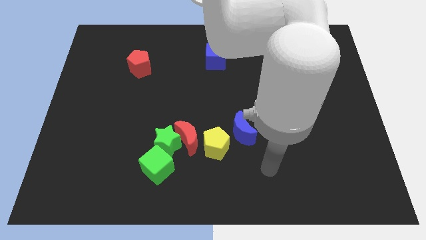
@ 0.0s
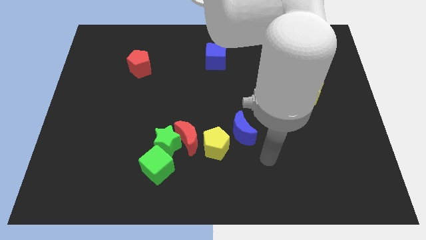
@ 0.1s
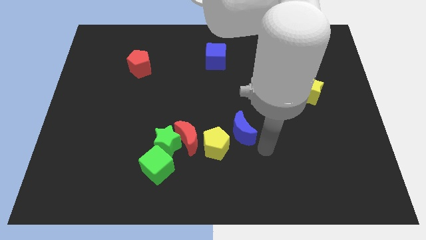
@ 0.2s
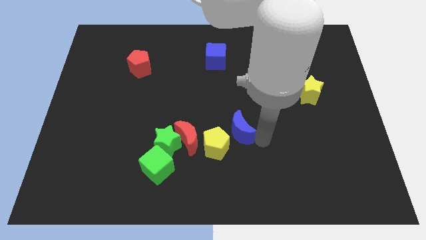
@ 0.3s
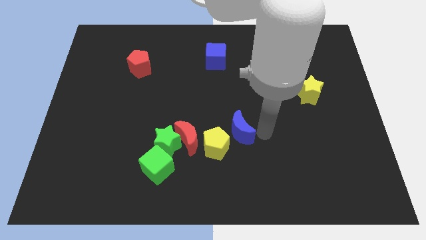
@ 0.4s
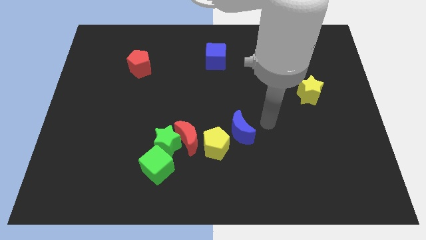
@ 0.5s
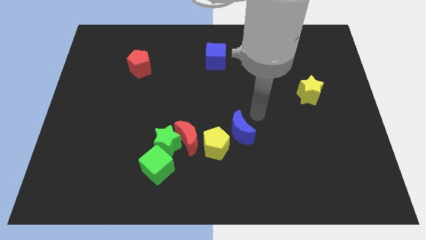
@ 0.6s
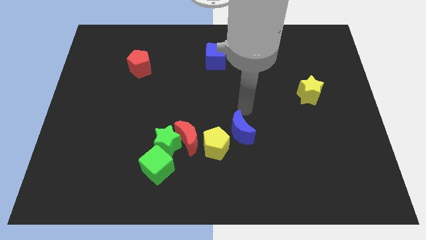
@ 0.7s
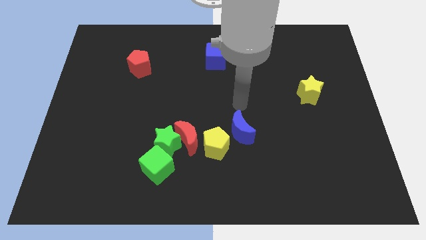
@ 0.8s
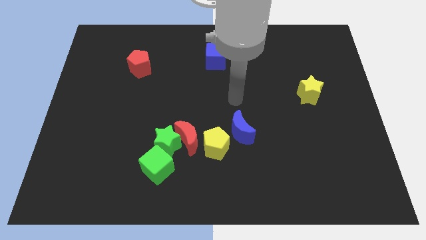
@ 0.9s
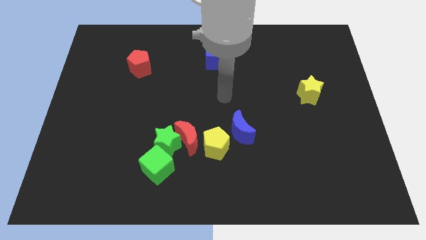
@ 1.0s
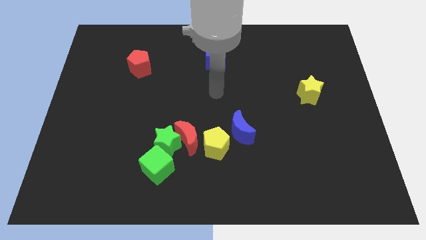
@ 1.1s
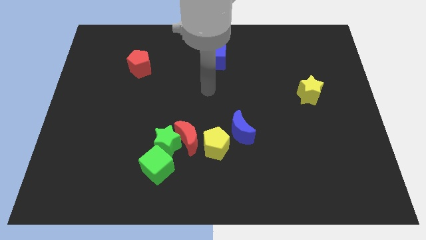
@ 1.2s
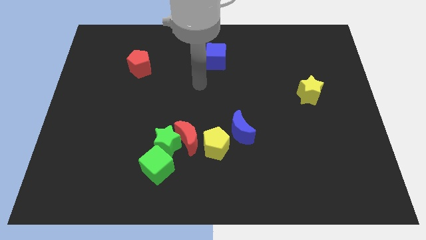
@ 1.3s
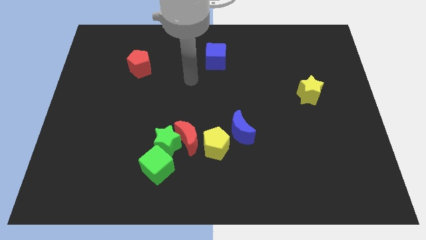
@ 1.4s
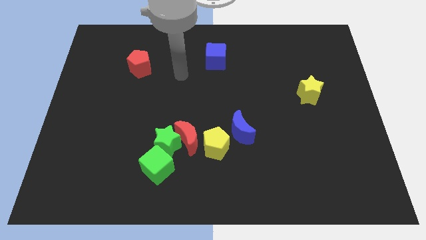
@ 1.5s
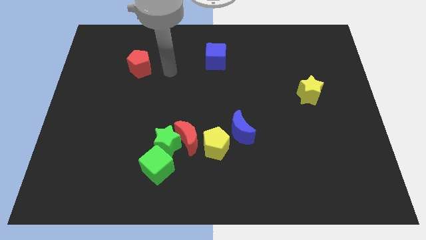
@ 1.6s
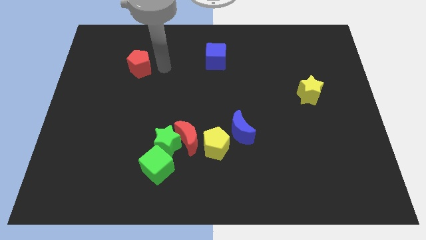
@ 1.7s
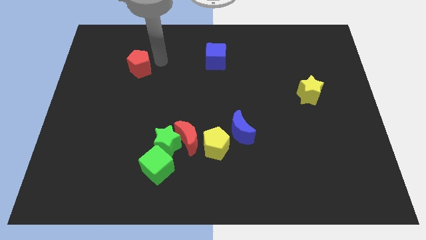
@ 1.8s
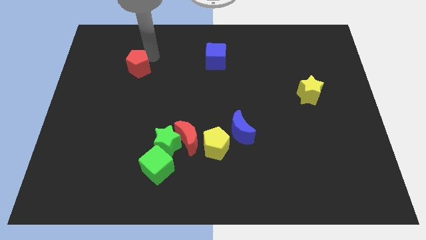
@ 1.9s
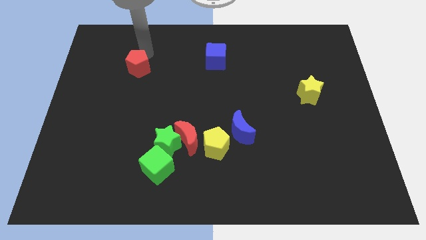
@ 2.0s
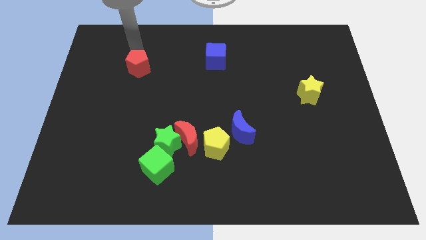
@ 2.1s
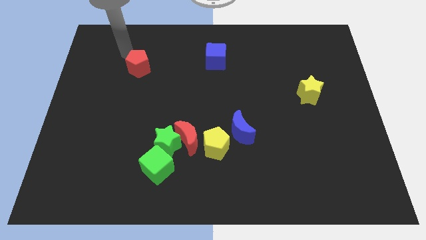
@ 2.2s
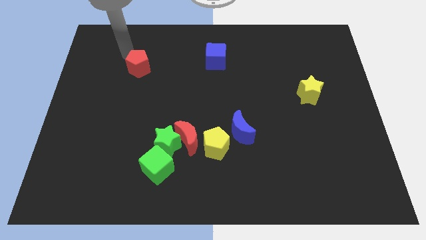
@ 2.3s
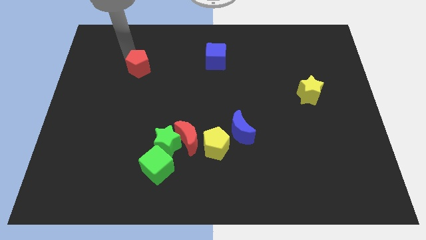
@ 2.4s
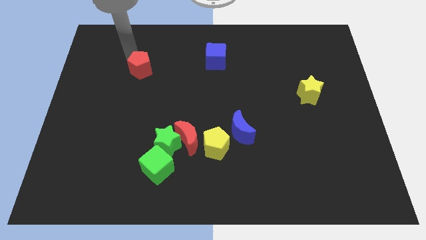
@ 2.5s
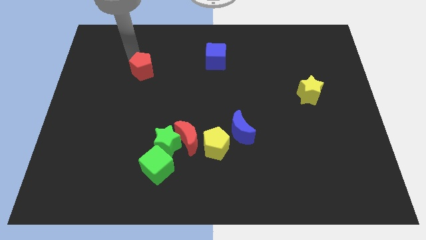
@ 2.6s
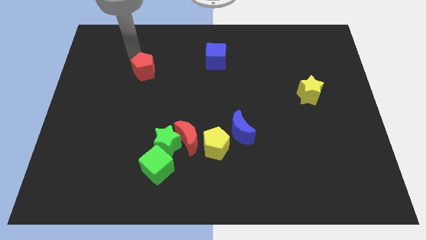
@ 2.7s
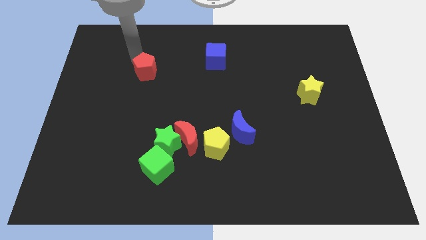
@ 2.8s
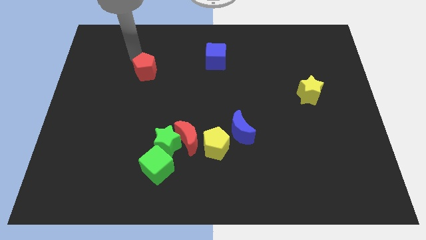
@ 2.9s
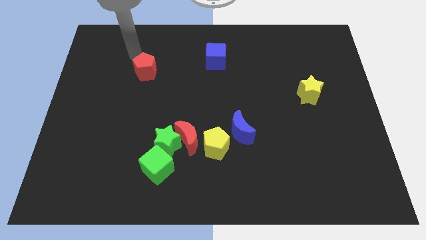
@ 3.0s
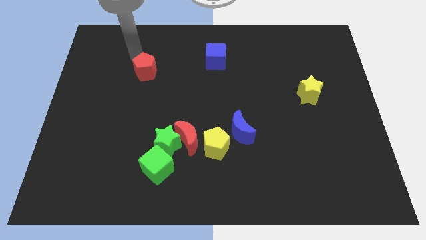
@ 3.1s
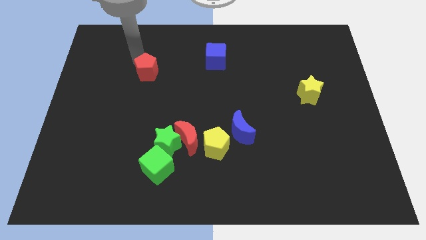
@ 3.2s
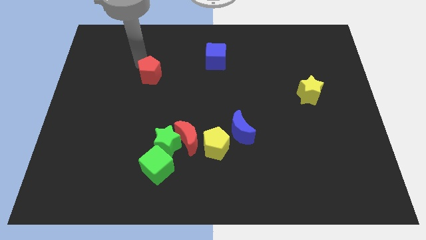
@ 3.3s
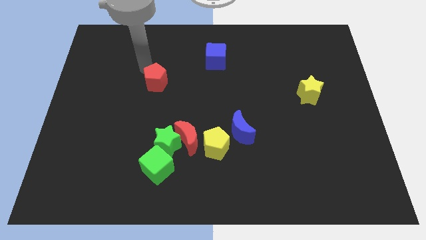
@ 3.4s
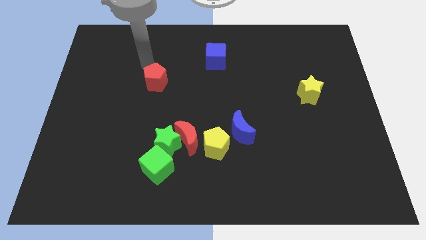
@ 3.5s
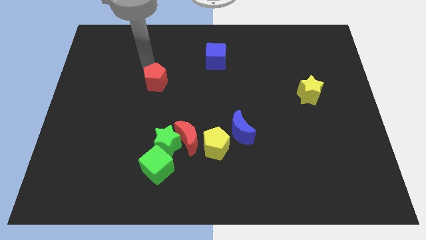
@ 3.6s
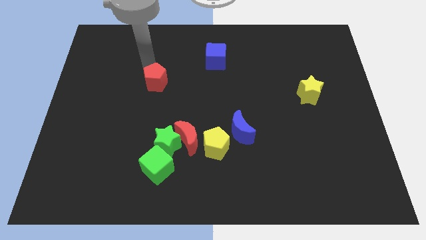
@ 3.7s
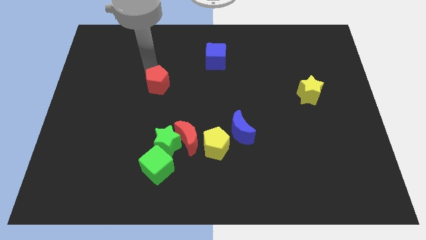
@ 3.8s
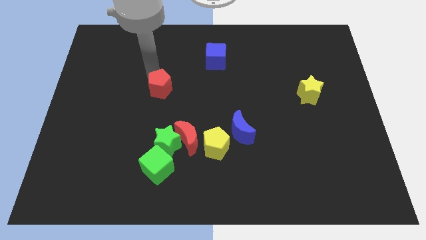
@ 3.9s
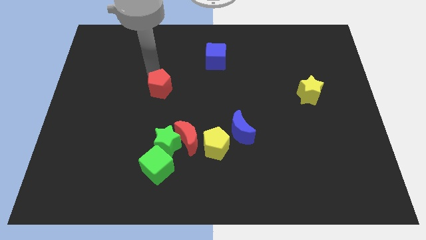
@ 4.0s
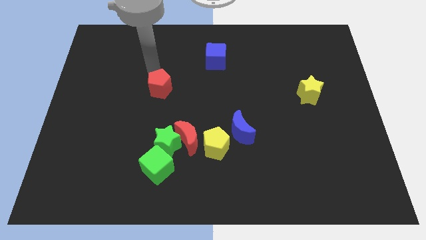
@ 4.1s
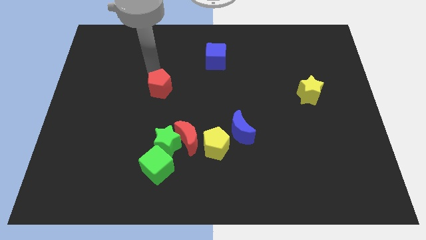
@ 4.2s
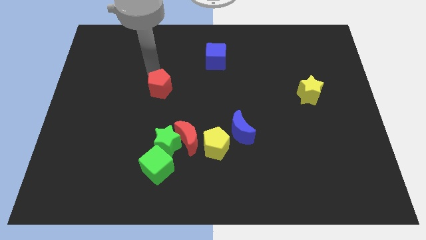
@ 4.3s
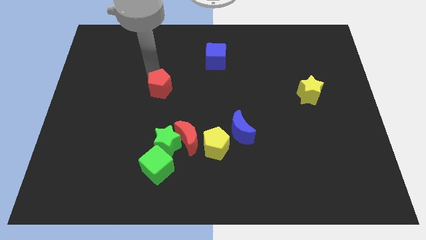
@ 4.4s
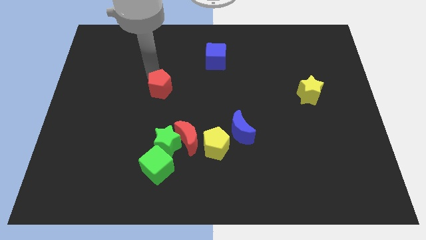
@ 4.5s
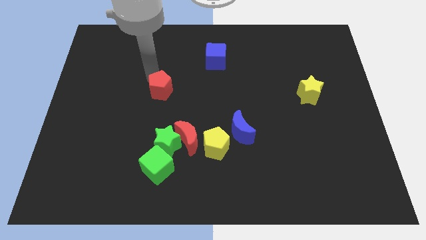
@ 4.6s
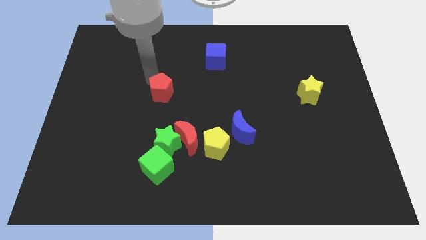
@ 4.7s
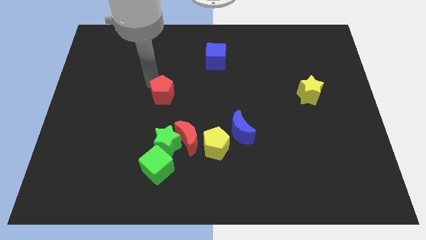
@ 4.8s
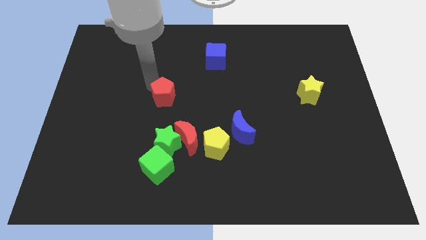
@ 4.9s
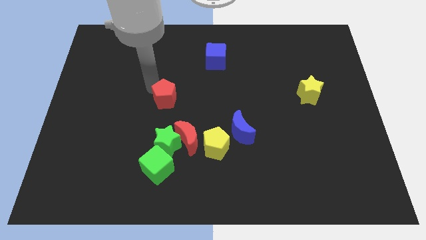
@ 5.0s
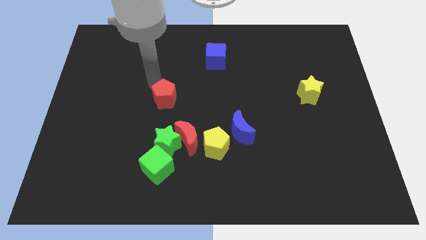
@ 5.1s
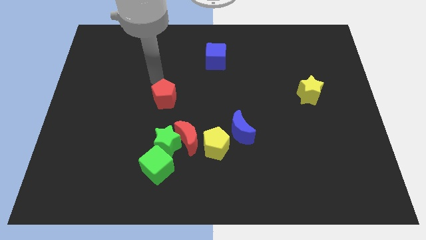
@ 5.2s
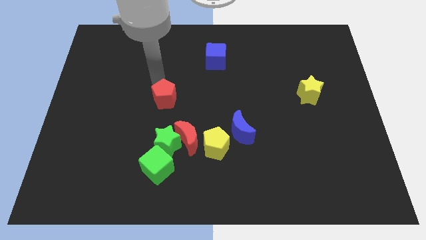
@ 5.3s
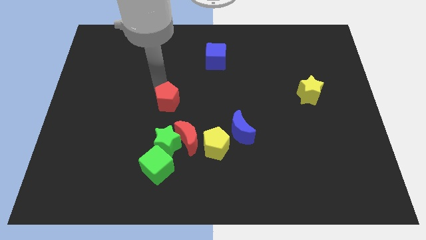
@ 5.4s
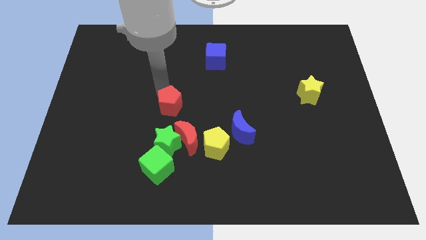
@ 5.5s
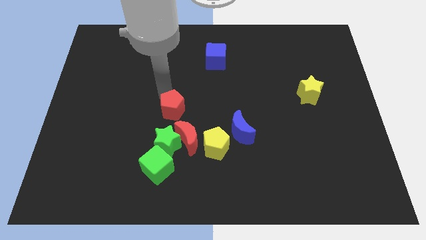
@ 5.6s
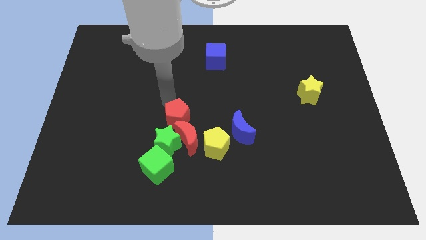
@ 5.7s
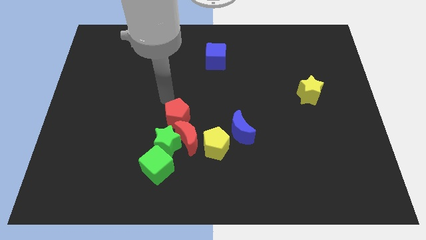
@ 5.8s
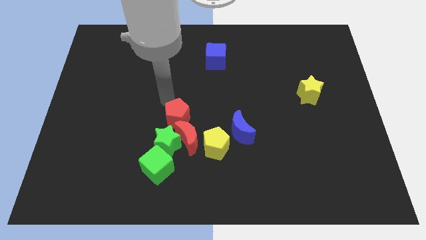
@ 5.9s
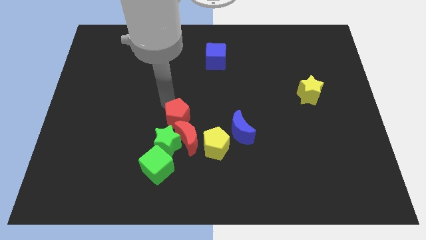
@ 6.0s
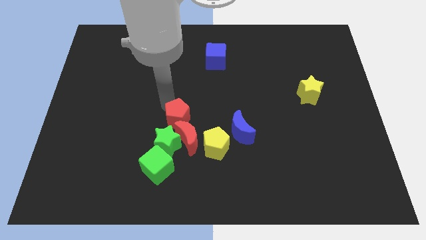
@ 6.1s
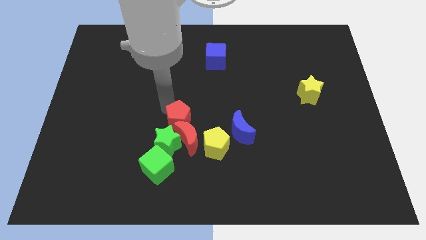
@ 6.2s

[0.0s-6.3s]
slide the red pentagon close to the red moon

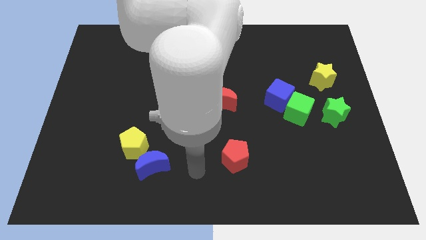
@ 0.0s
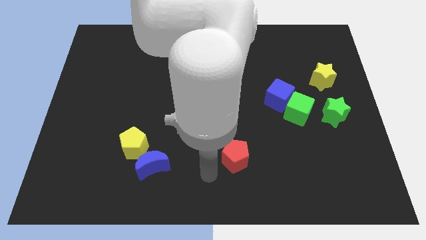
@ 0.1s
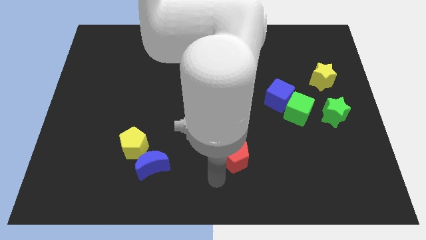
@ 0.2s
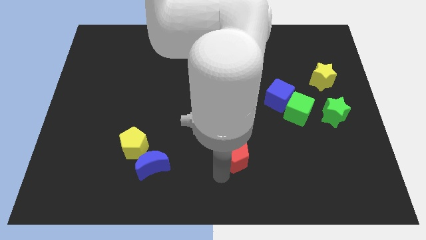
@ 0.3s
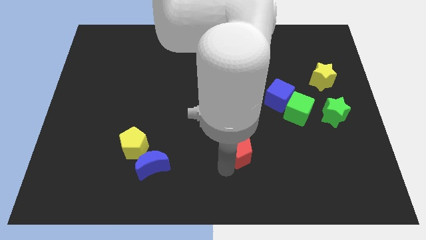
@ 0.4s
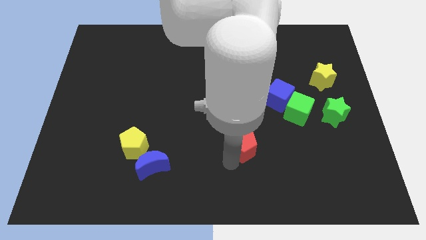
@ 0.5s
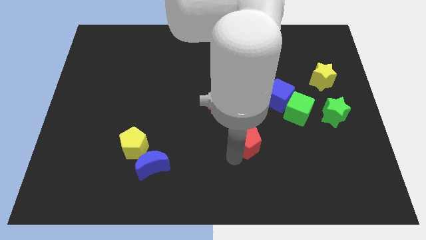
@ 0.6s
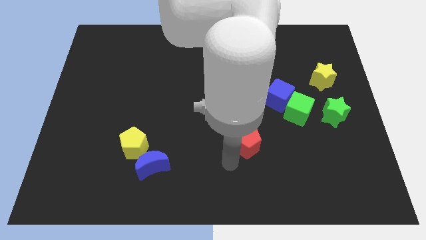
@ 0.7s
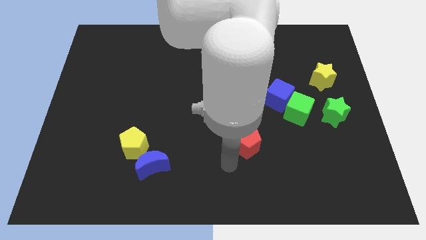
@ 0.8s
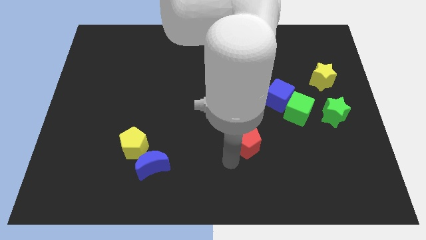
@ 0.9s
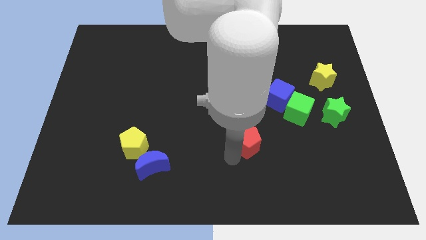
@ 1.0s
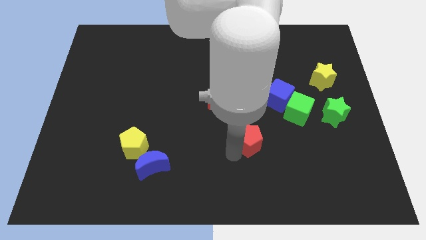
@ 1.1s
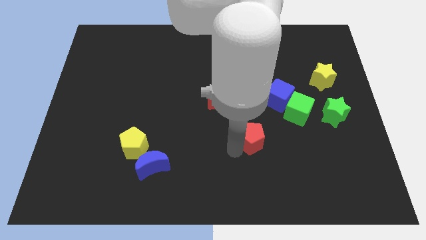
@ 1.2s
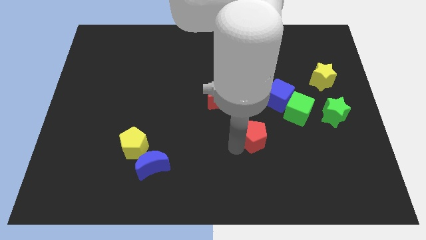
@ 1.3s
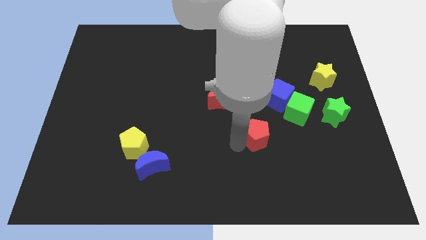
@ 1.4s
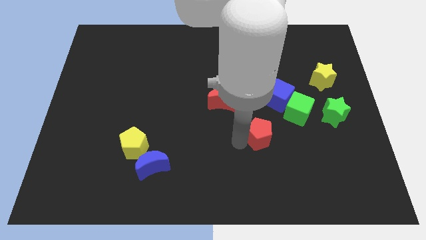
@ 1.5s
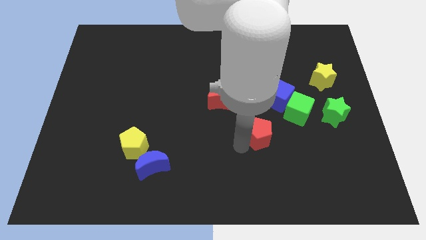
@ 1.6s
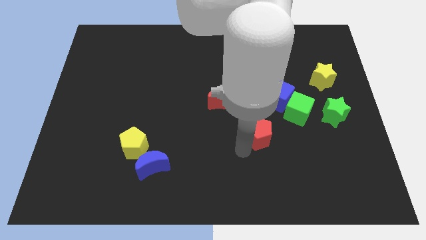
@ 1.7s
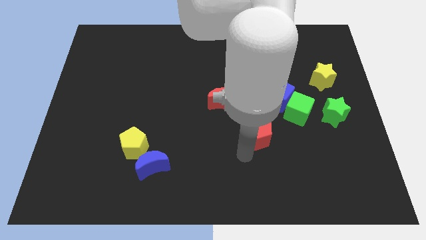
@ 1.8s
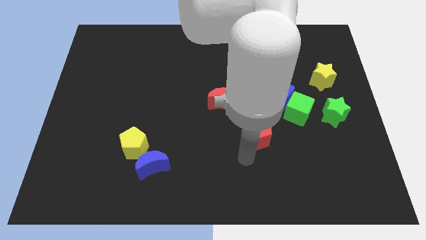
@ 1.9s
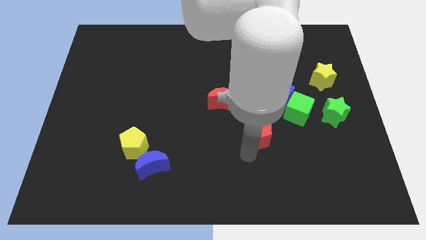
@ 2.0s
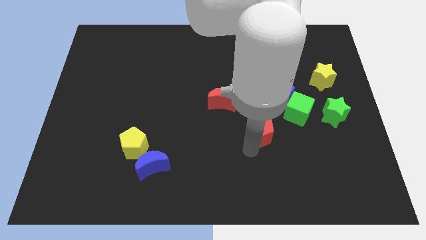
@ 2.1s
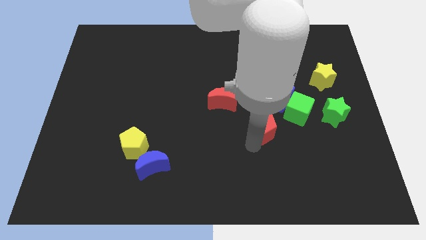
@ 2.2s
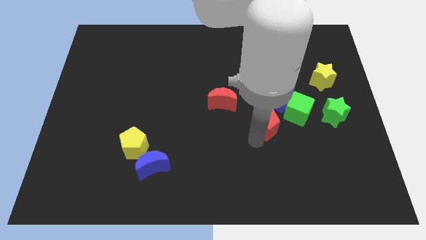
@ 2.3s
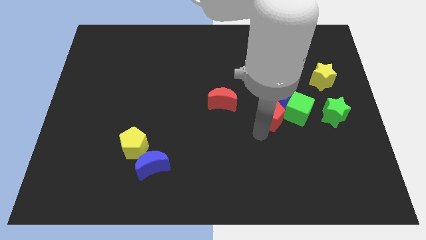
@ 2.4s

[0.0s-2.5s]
put the red pentagon close to the blue cube
